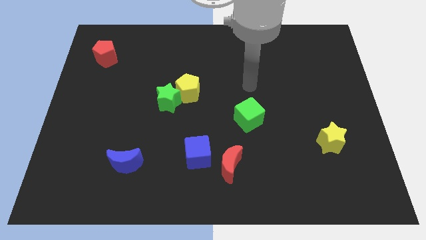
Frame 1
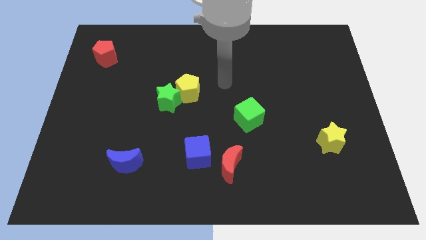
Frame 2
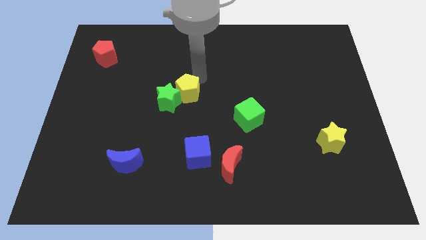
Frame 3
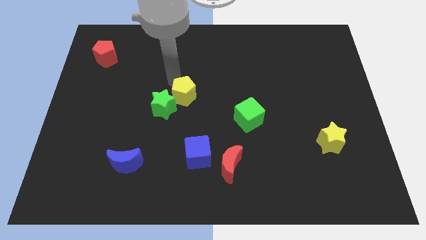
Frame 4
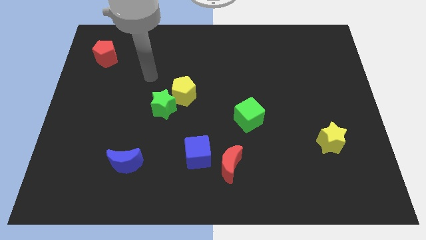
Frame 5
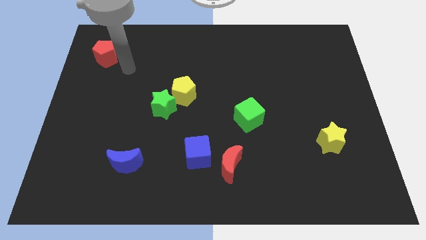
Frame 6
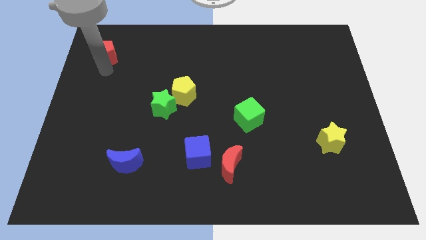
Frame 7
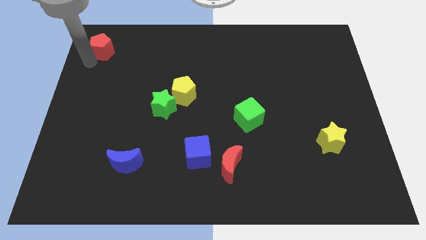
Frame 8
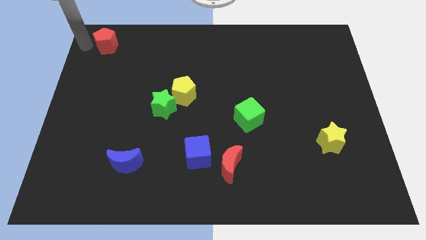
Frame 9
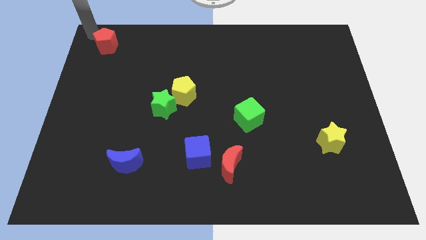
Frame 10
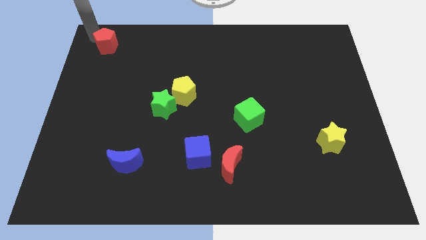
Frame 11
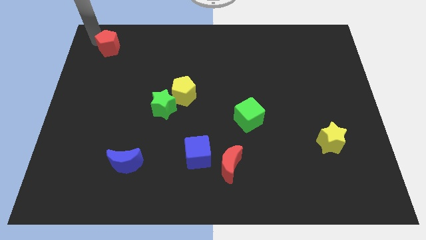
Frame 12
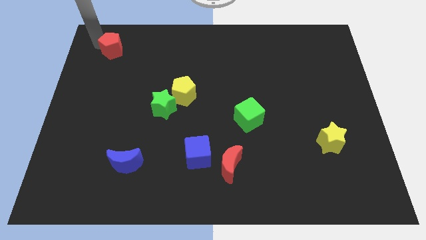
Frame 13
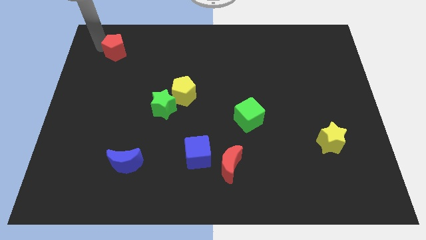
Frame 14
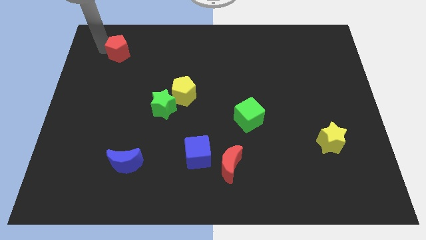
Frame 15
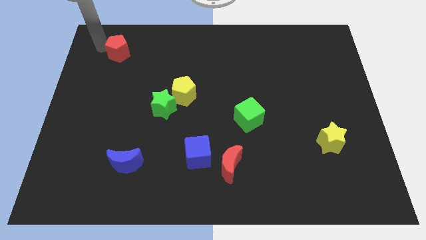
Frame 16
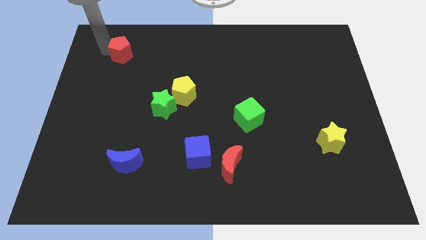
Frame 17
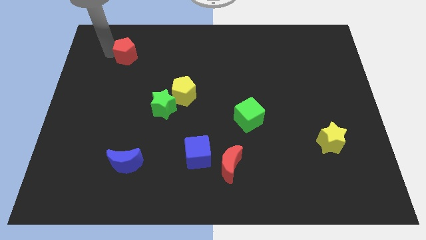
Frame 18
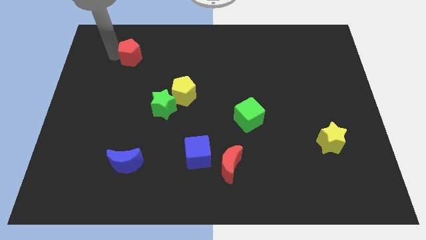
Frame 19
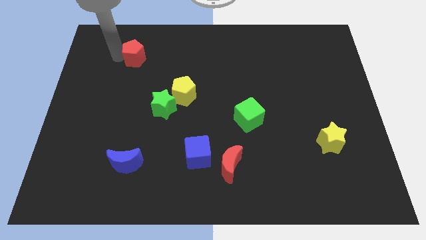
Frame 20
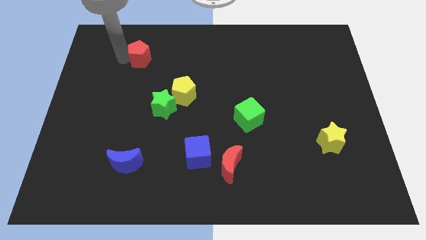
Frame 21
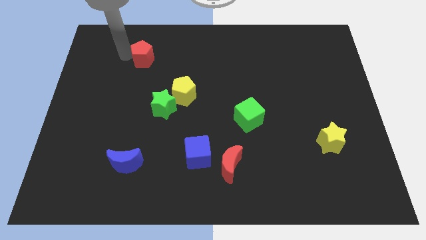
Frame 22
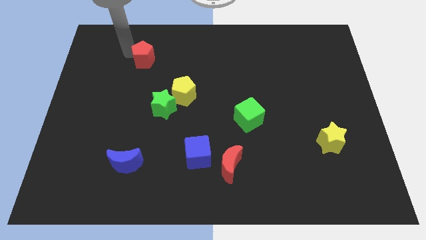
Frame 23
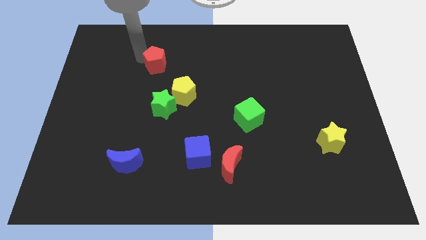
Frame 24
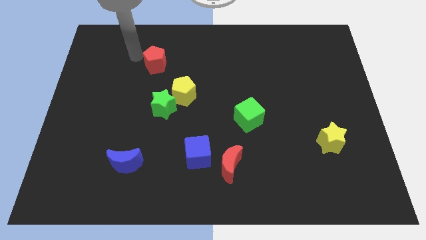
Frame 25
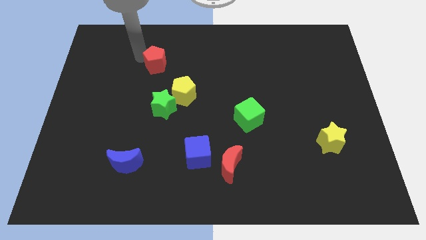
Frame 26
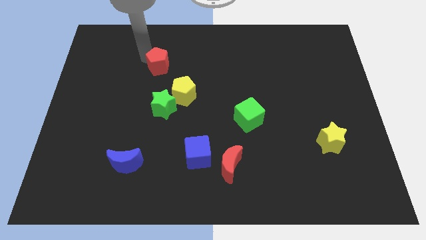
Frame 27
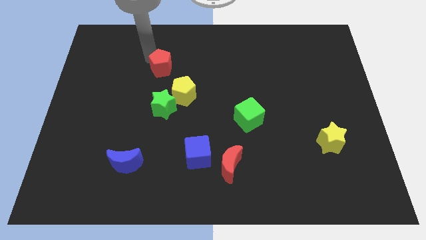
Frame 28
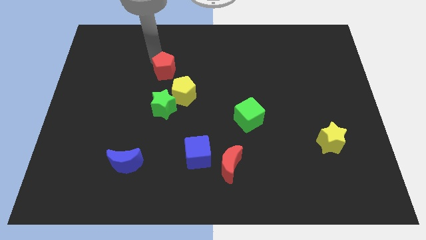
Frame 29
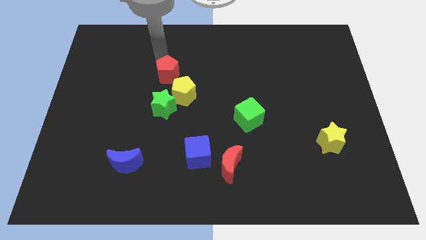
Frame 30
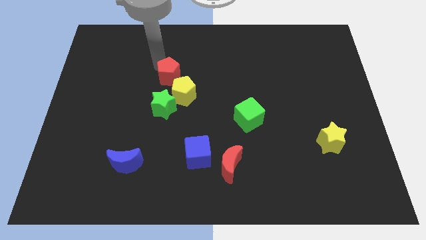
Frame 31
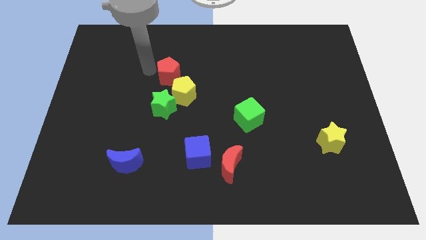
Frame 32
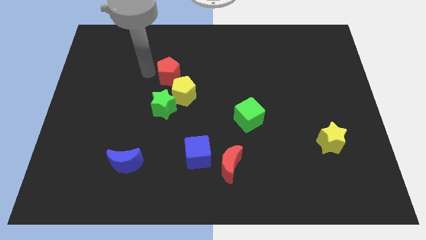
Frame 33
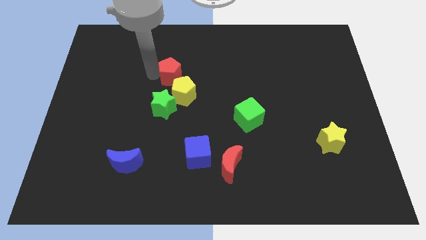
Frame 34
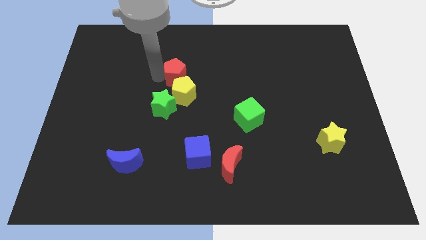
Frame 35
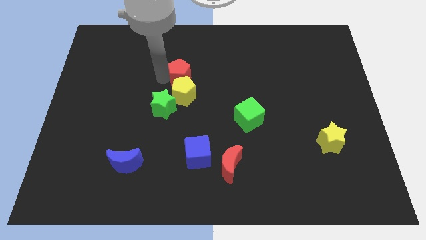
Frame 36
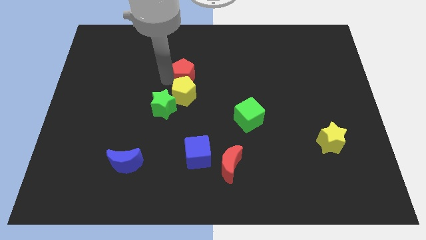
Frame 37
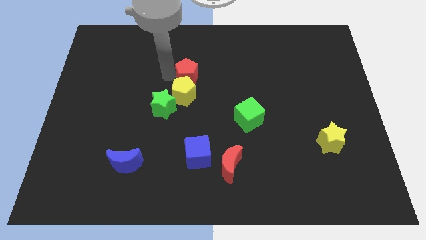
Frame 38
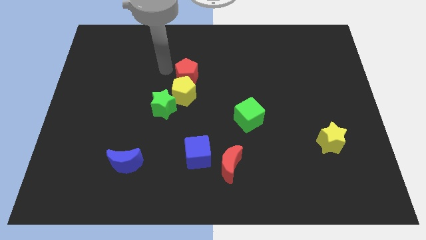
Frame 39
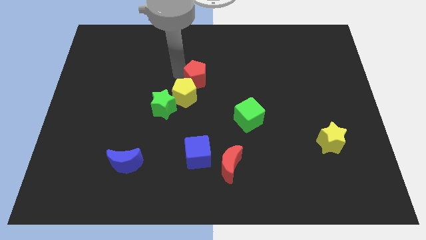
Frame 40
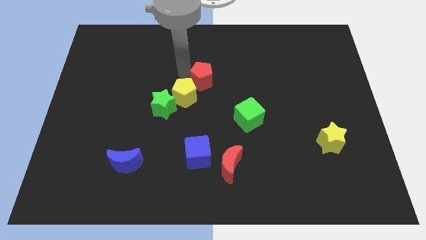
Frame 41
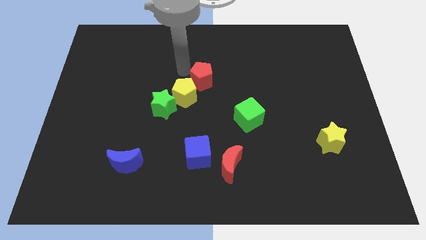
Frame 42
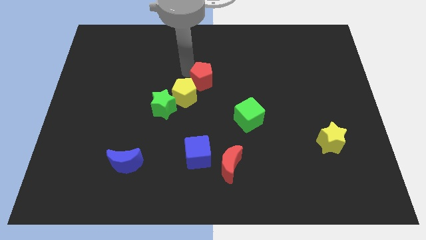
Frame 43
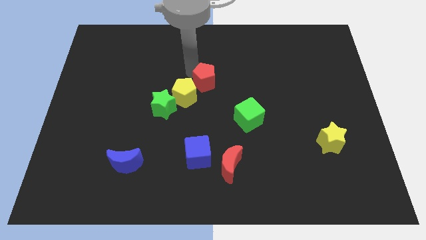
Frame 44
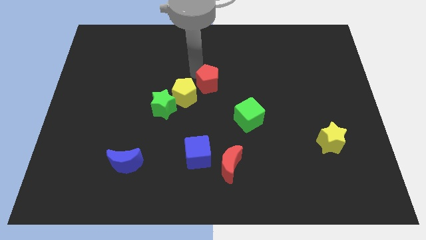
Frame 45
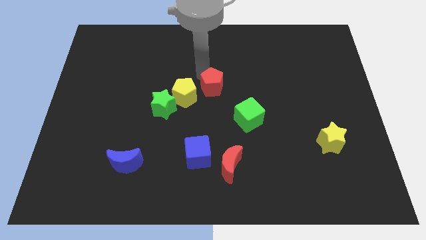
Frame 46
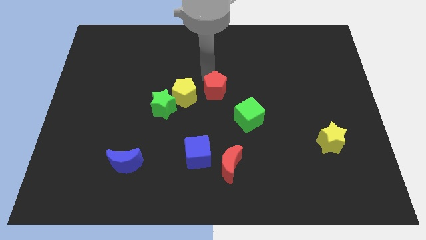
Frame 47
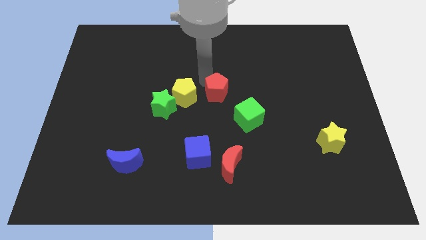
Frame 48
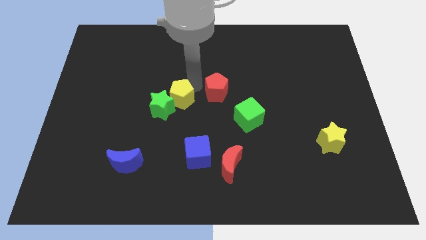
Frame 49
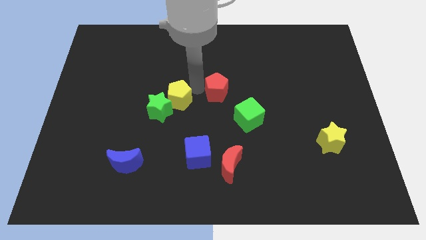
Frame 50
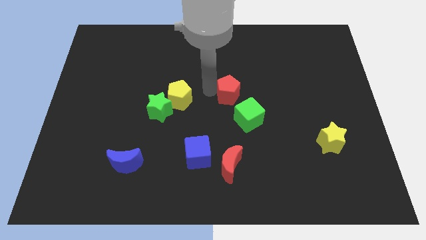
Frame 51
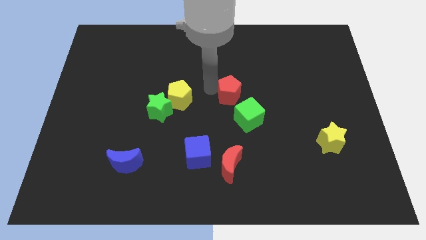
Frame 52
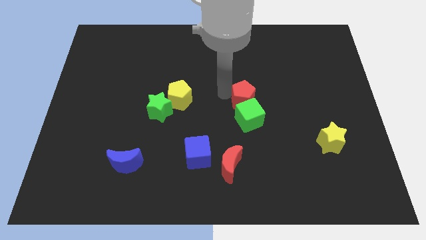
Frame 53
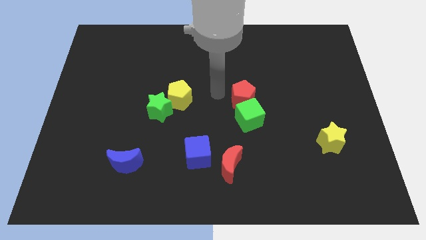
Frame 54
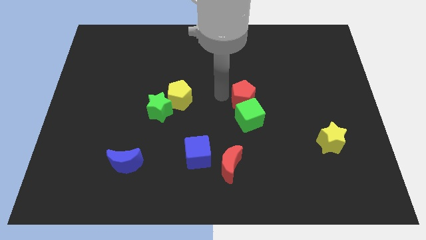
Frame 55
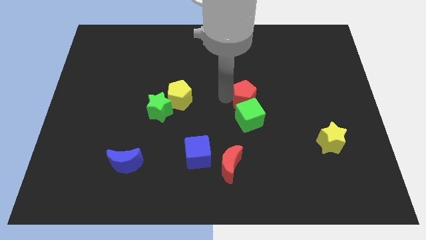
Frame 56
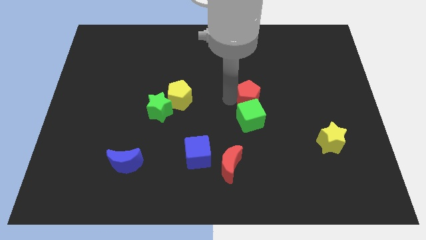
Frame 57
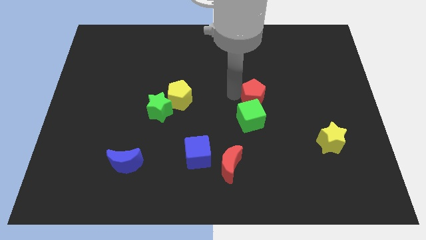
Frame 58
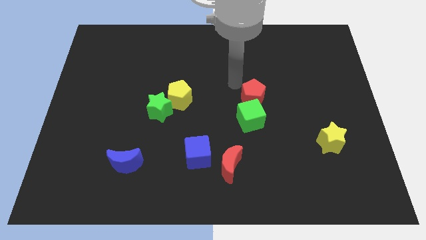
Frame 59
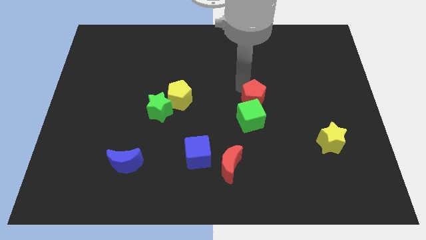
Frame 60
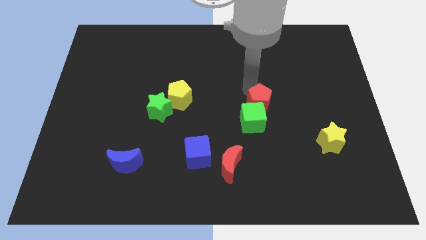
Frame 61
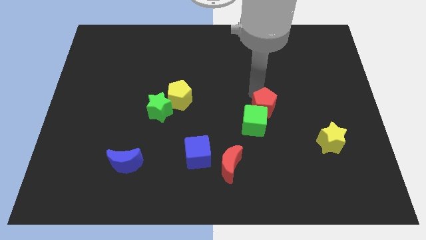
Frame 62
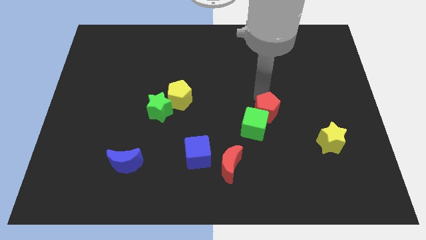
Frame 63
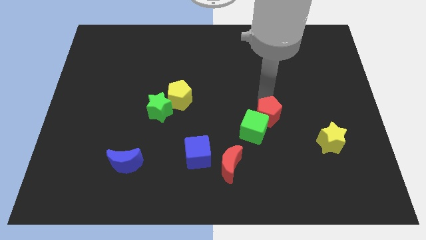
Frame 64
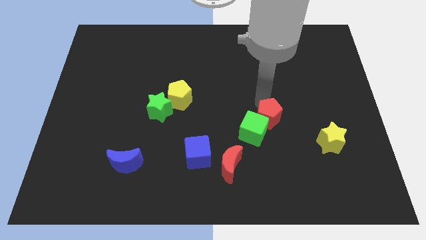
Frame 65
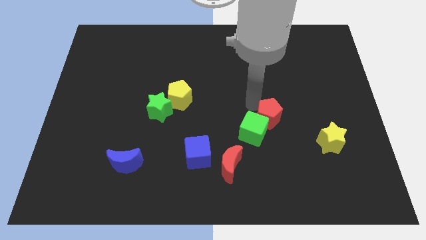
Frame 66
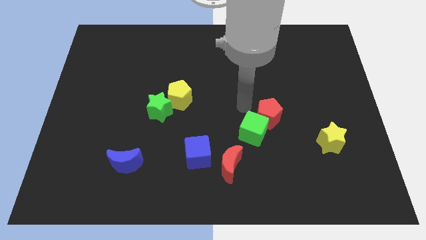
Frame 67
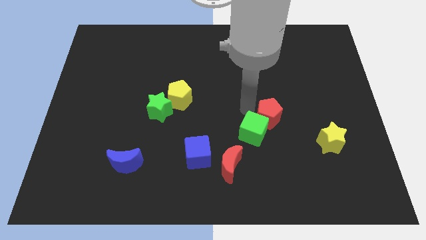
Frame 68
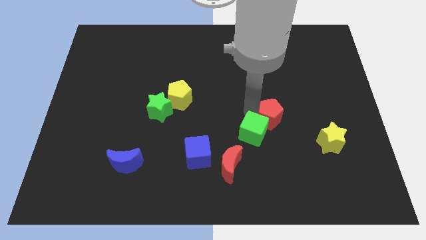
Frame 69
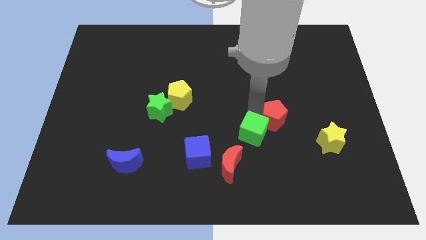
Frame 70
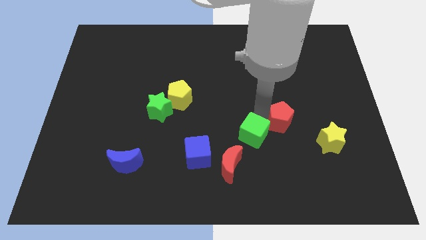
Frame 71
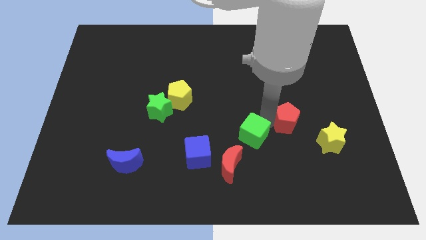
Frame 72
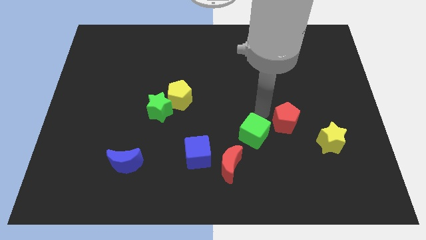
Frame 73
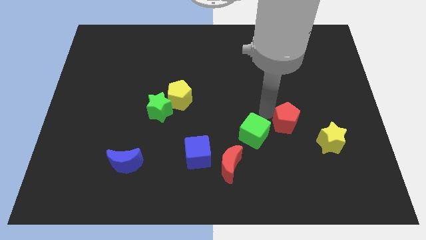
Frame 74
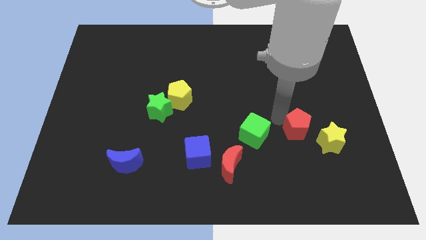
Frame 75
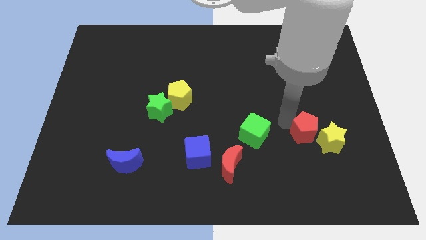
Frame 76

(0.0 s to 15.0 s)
slide the red pentagon towards the yellow star
